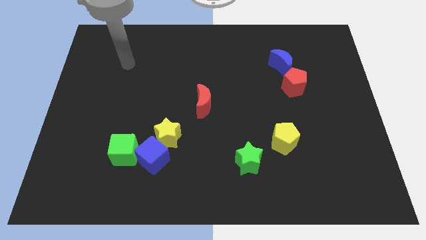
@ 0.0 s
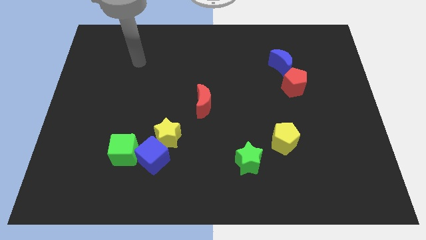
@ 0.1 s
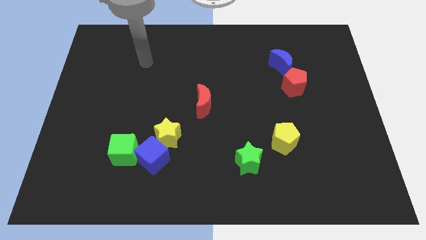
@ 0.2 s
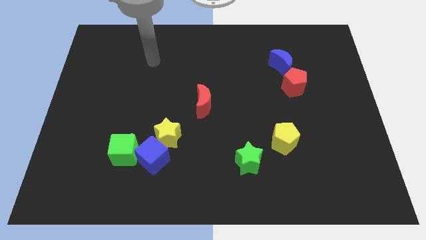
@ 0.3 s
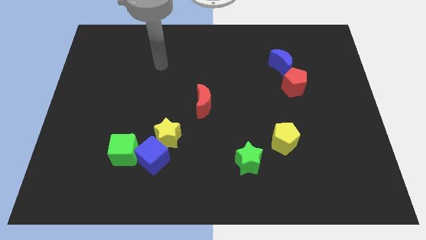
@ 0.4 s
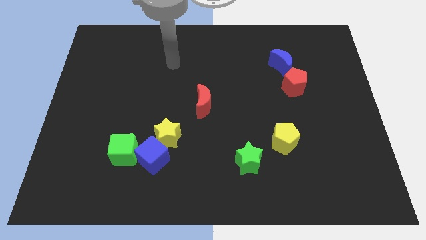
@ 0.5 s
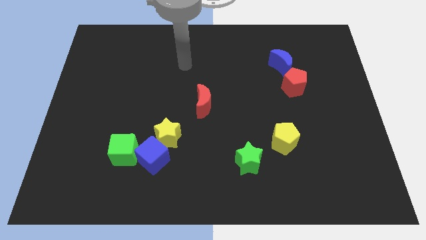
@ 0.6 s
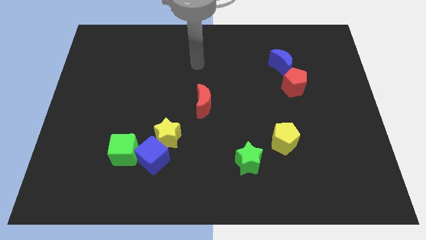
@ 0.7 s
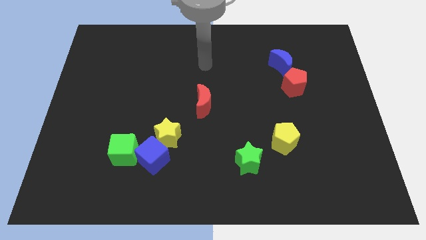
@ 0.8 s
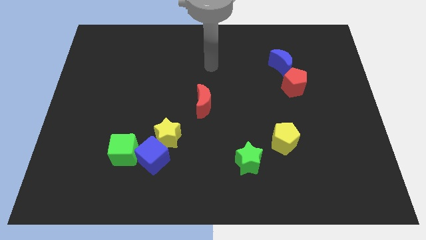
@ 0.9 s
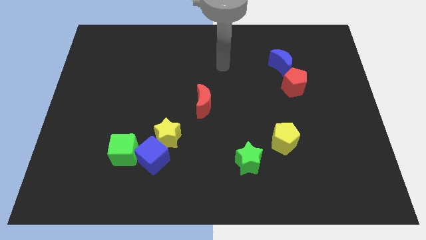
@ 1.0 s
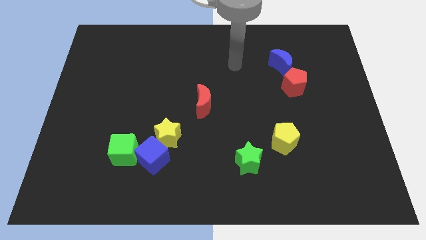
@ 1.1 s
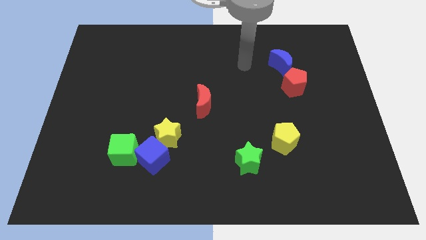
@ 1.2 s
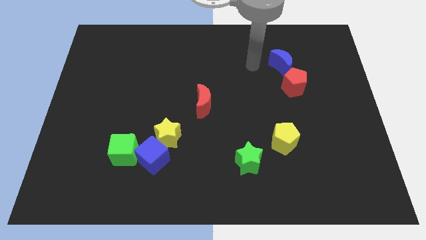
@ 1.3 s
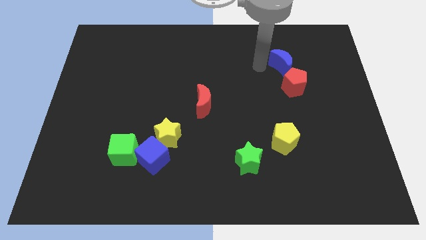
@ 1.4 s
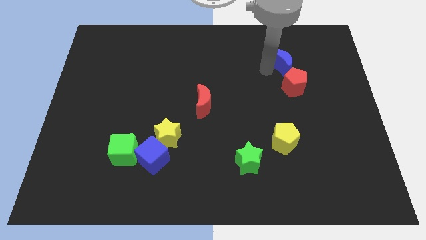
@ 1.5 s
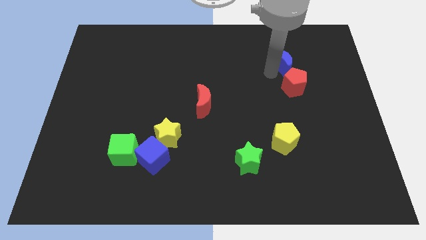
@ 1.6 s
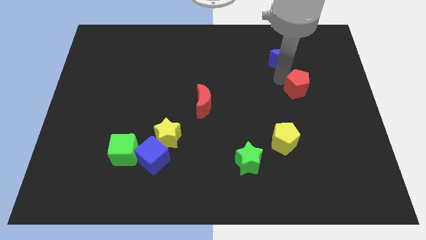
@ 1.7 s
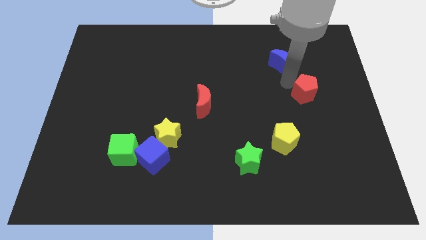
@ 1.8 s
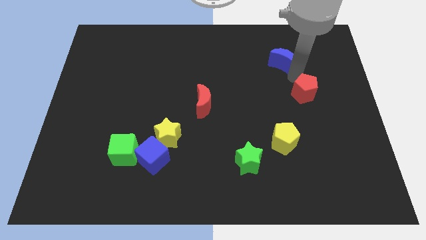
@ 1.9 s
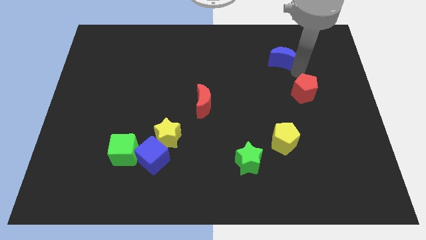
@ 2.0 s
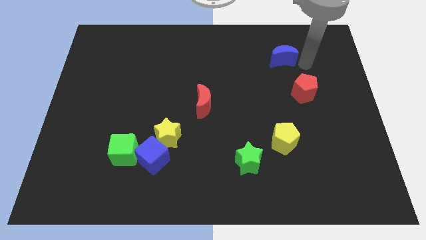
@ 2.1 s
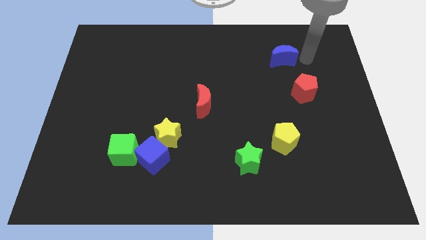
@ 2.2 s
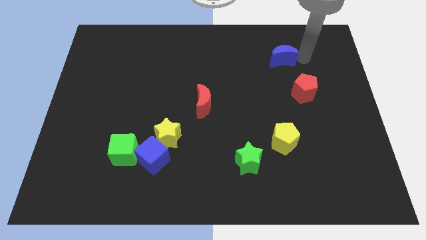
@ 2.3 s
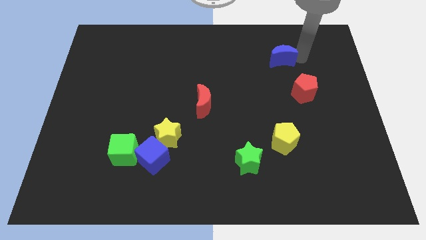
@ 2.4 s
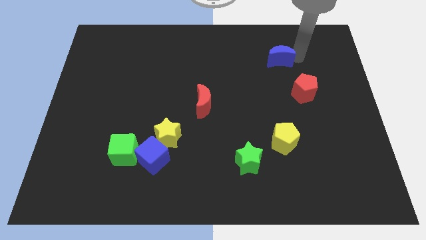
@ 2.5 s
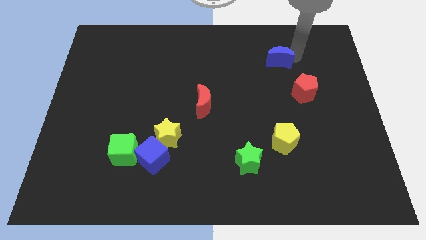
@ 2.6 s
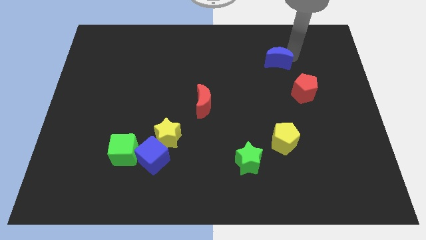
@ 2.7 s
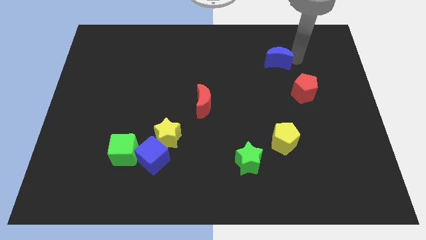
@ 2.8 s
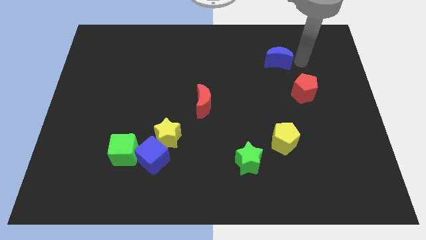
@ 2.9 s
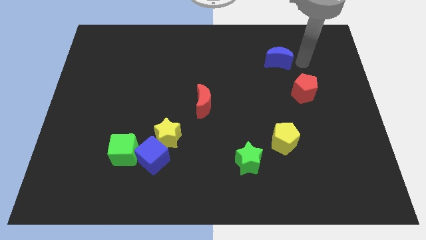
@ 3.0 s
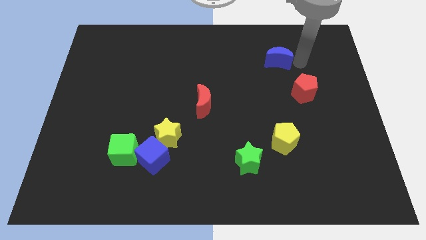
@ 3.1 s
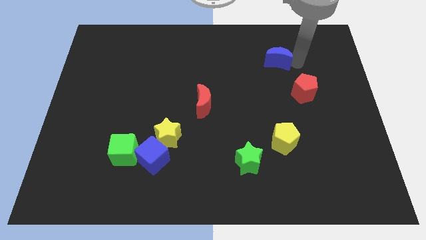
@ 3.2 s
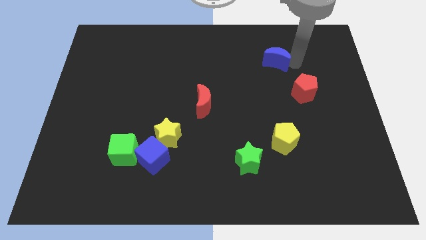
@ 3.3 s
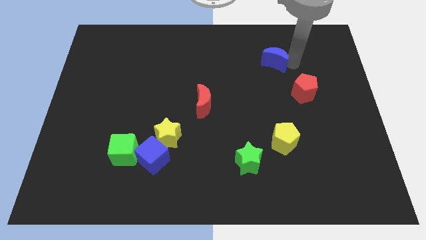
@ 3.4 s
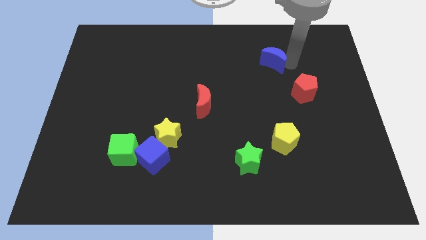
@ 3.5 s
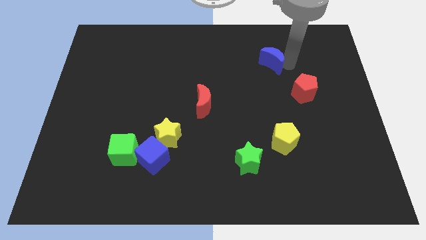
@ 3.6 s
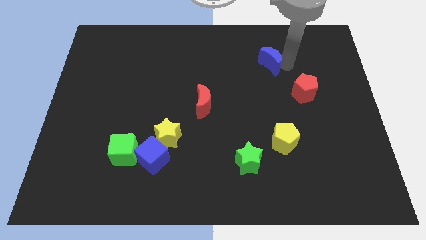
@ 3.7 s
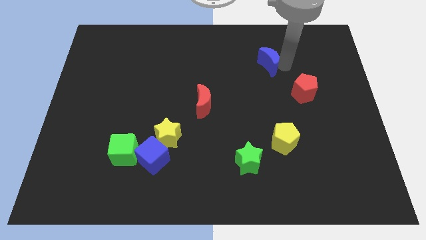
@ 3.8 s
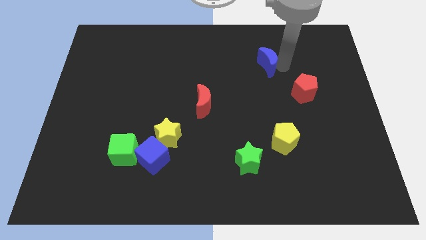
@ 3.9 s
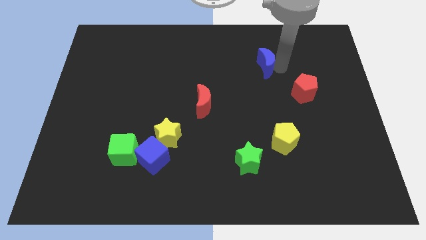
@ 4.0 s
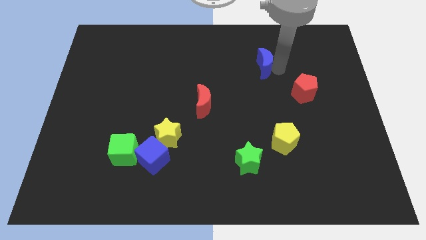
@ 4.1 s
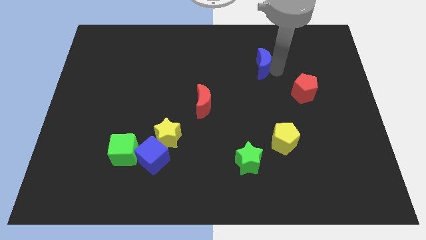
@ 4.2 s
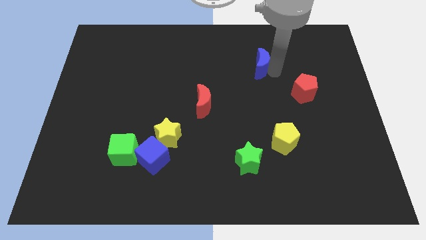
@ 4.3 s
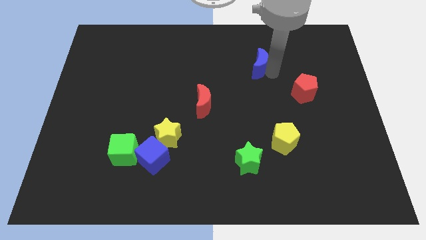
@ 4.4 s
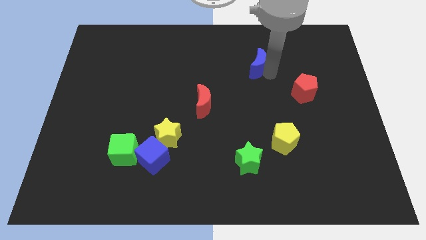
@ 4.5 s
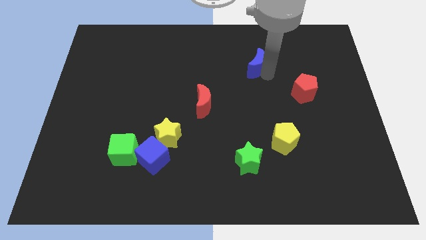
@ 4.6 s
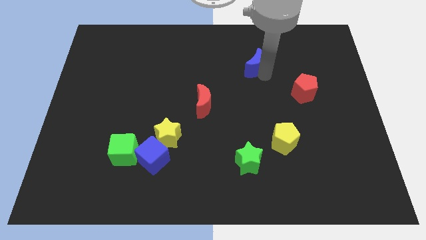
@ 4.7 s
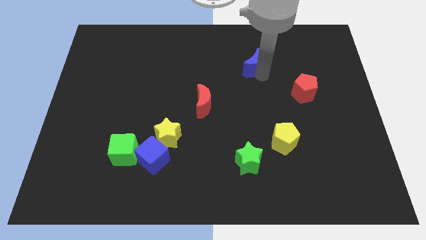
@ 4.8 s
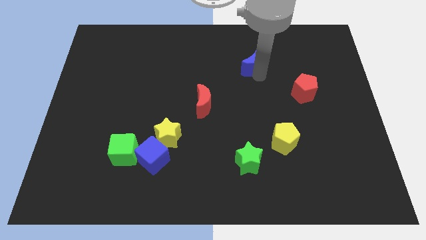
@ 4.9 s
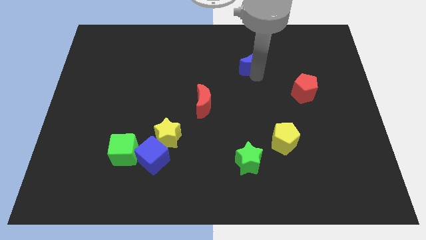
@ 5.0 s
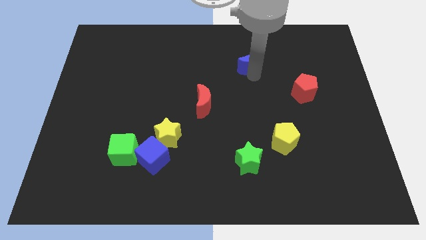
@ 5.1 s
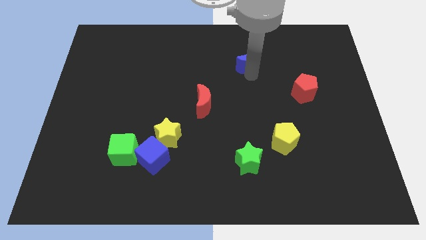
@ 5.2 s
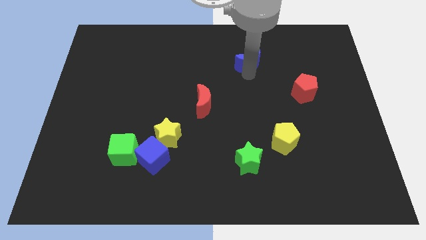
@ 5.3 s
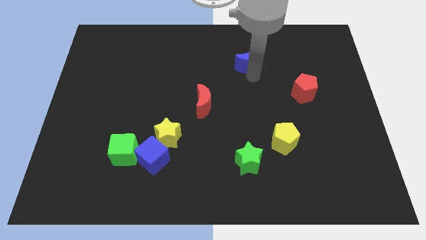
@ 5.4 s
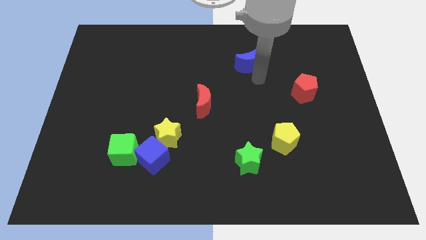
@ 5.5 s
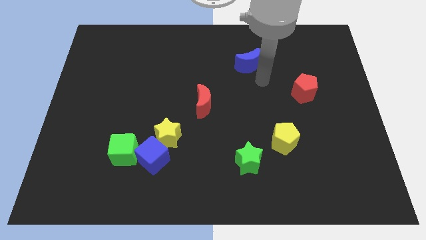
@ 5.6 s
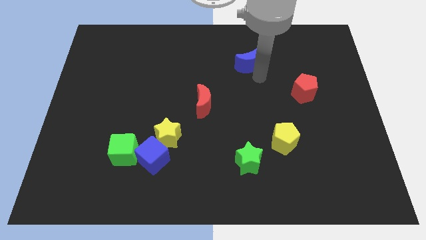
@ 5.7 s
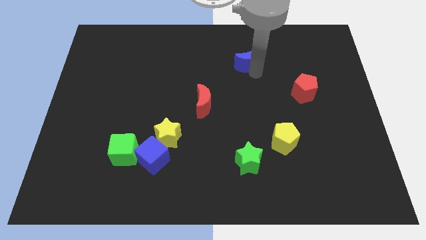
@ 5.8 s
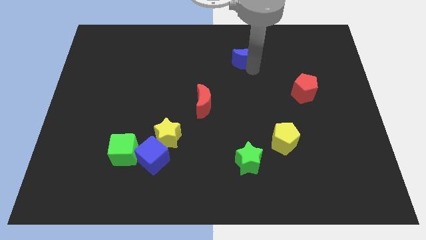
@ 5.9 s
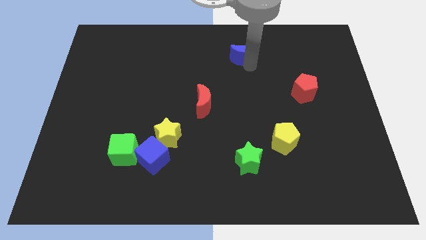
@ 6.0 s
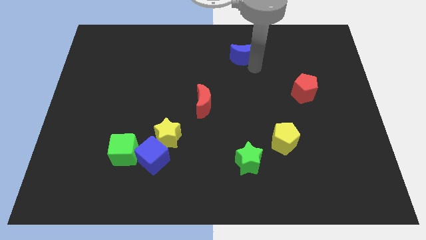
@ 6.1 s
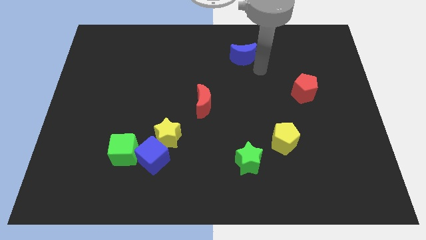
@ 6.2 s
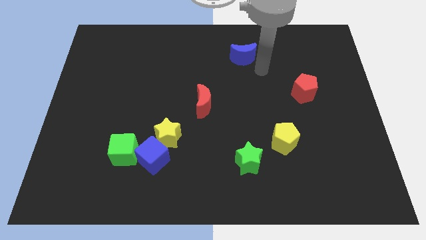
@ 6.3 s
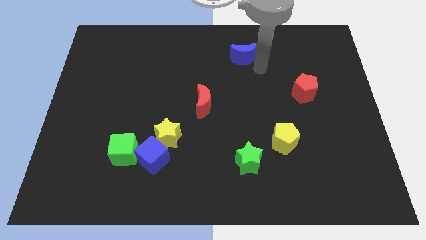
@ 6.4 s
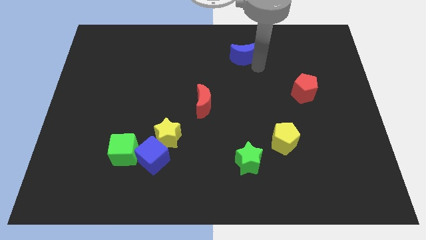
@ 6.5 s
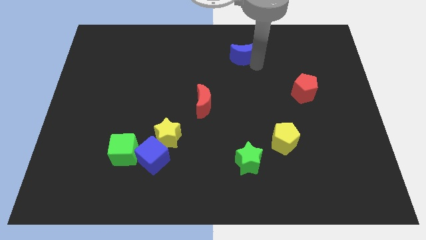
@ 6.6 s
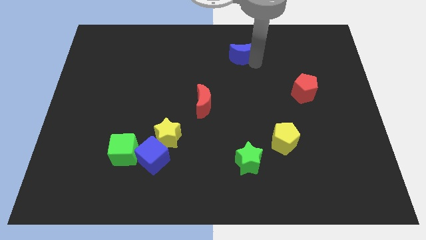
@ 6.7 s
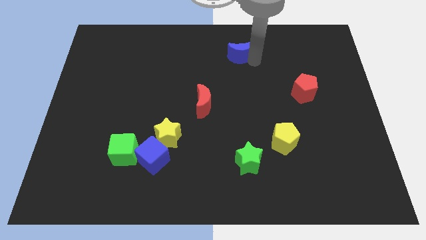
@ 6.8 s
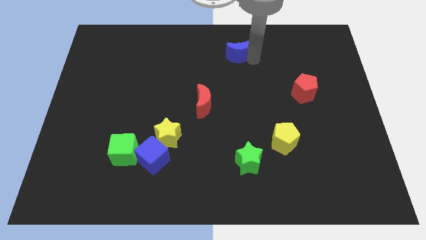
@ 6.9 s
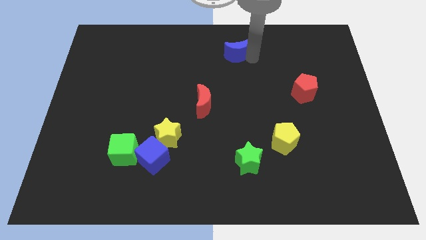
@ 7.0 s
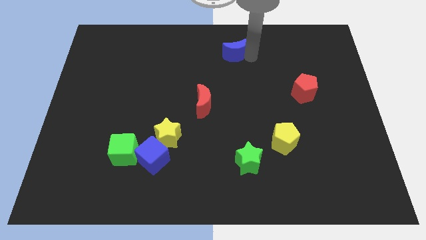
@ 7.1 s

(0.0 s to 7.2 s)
move the blue moon to the top
